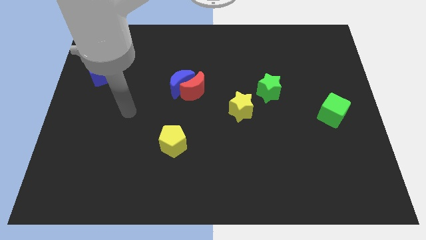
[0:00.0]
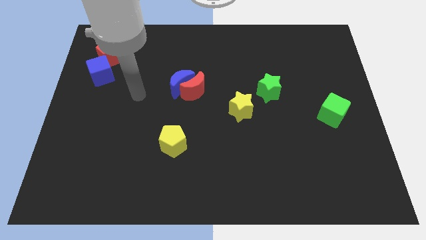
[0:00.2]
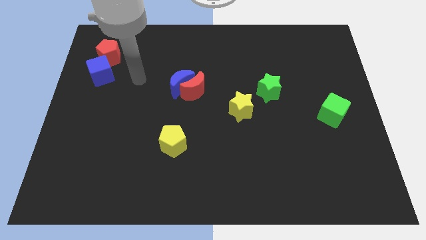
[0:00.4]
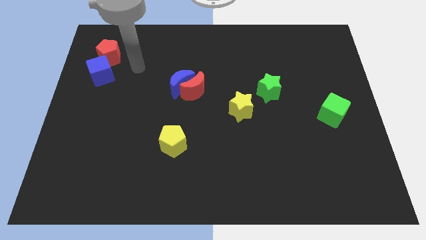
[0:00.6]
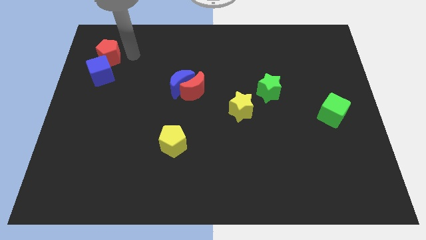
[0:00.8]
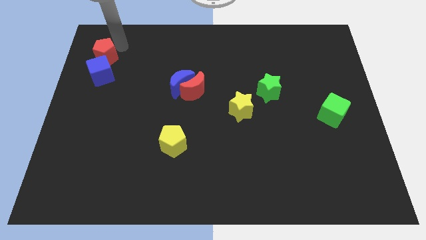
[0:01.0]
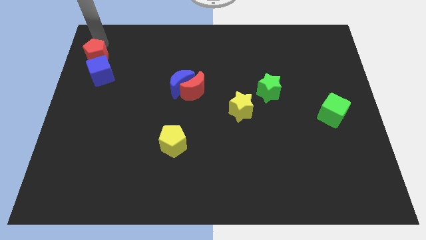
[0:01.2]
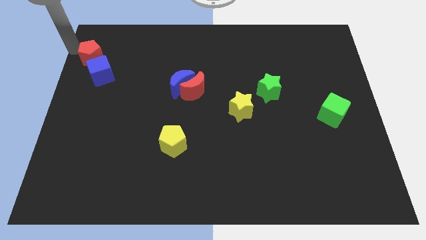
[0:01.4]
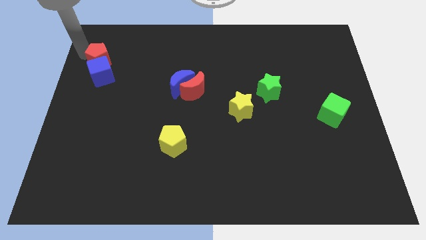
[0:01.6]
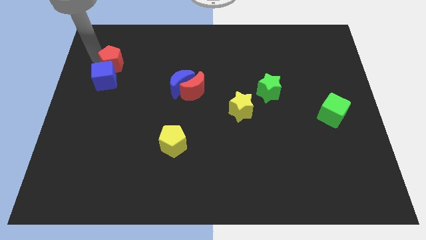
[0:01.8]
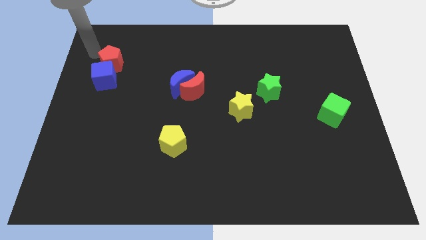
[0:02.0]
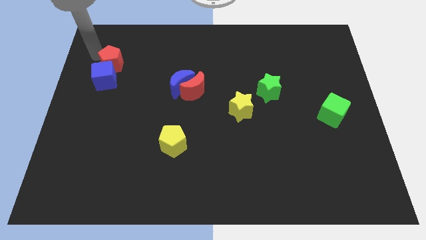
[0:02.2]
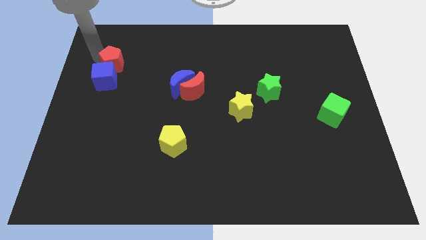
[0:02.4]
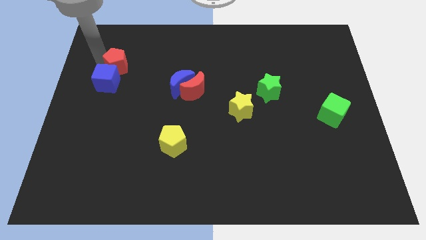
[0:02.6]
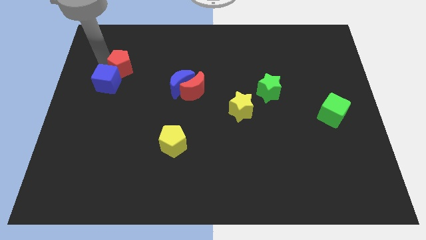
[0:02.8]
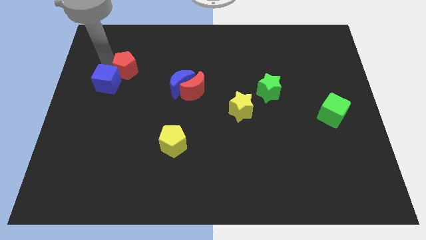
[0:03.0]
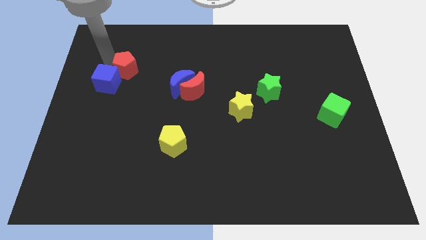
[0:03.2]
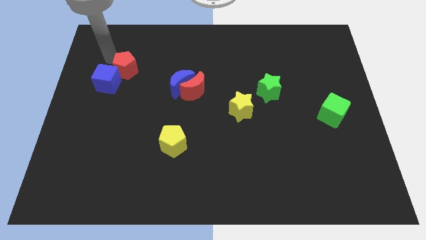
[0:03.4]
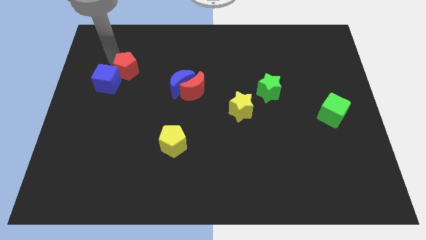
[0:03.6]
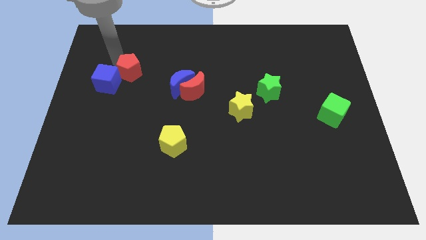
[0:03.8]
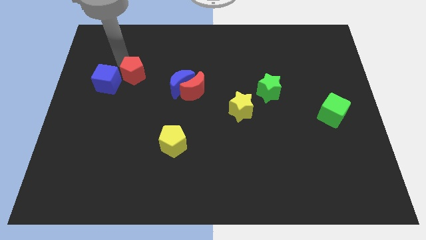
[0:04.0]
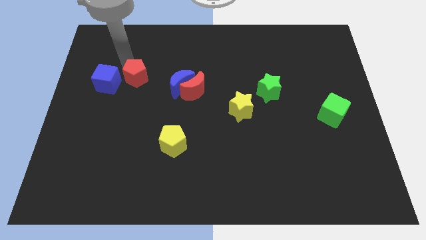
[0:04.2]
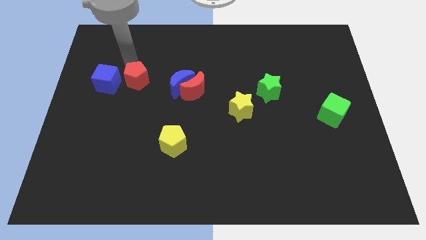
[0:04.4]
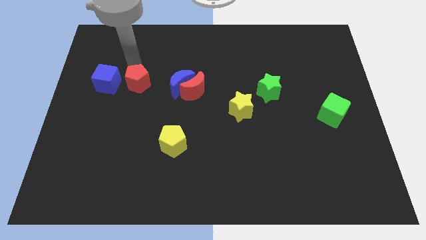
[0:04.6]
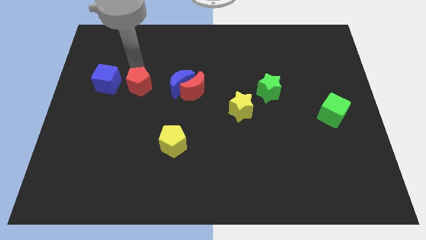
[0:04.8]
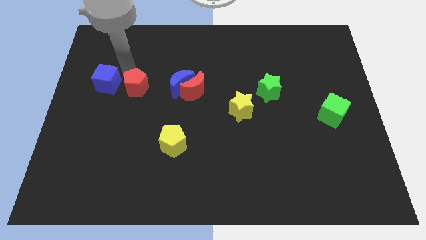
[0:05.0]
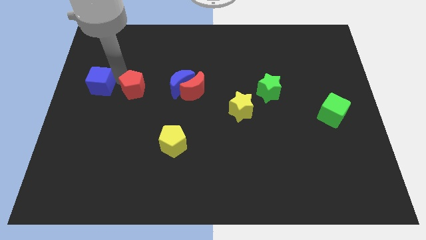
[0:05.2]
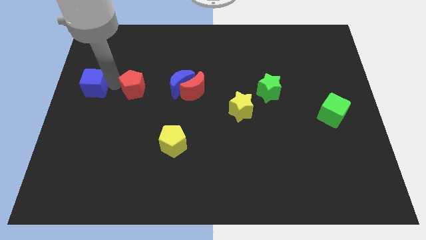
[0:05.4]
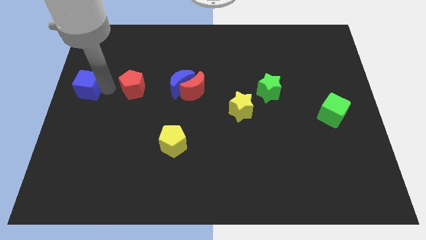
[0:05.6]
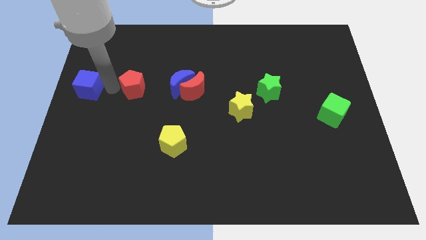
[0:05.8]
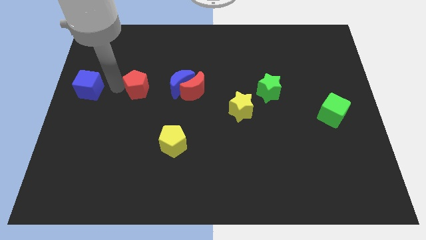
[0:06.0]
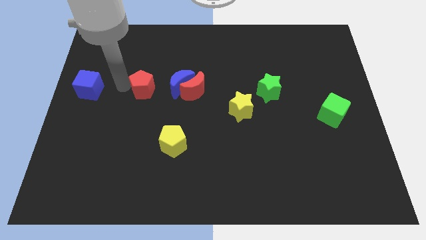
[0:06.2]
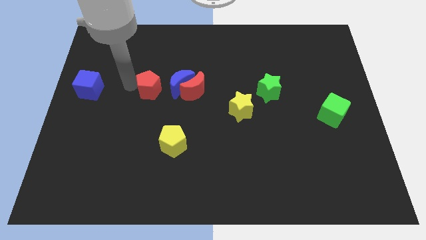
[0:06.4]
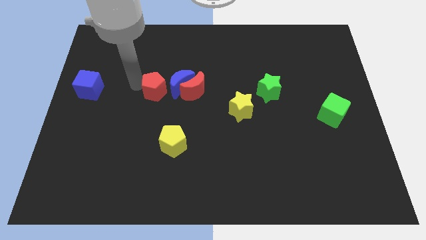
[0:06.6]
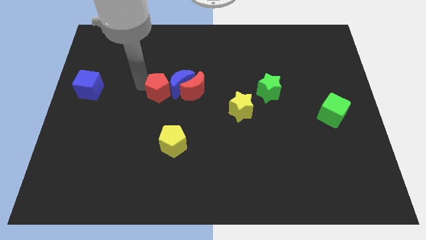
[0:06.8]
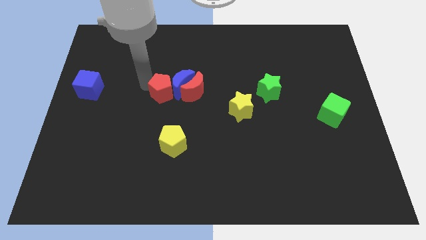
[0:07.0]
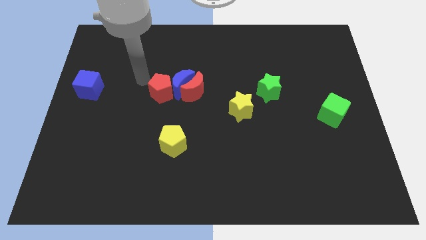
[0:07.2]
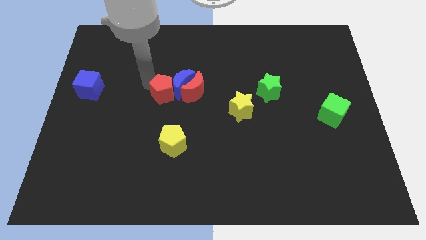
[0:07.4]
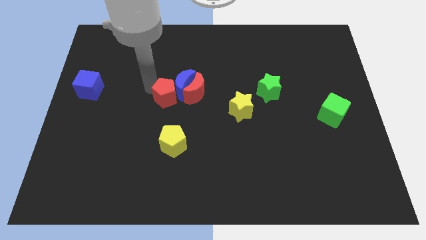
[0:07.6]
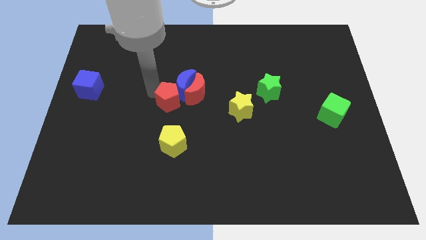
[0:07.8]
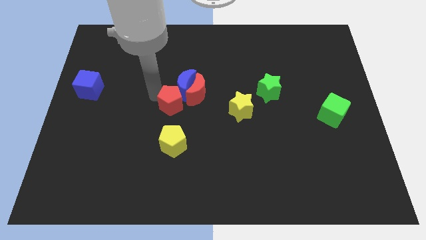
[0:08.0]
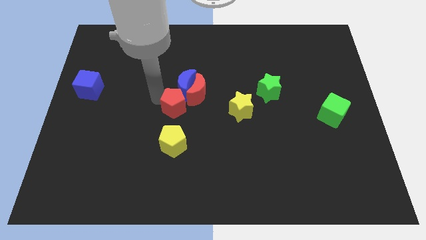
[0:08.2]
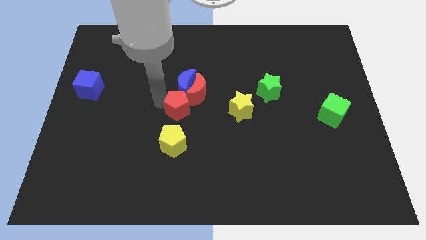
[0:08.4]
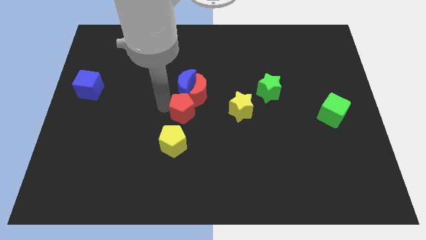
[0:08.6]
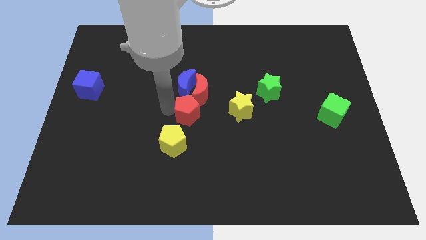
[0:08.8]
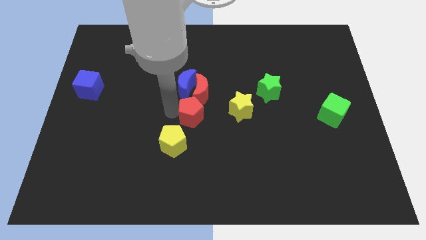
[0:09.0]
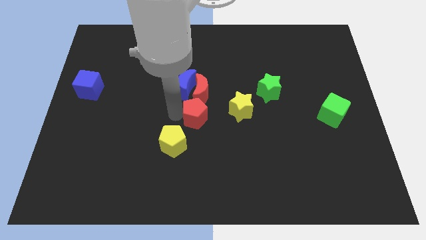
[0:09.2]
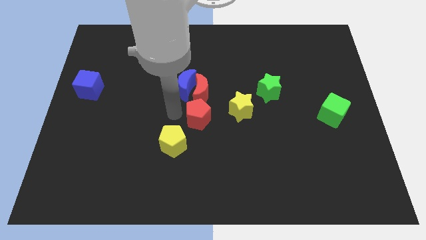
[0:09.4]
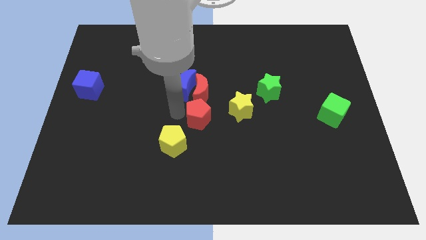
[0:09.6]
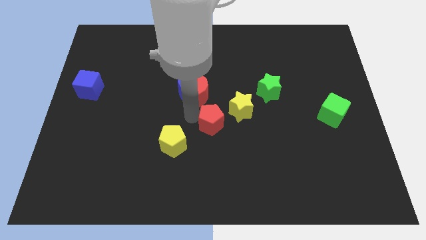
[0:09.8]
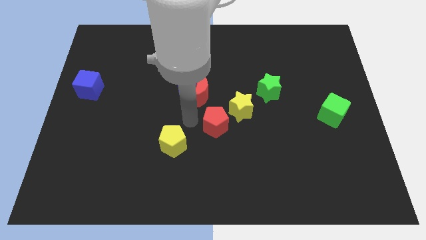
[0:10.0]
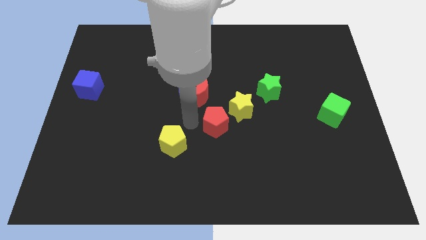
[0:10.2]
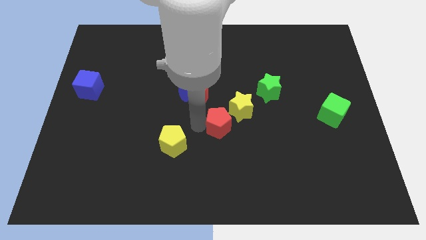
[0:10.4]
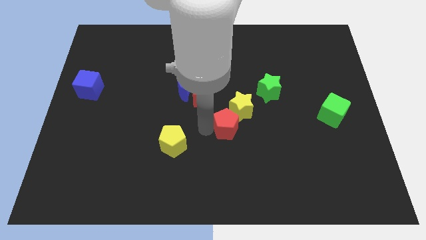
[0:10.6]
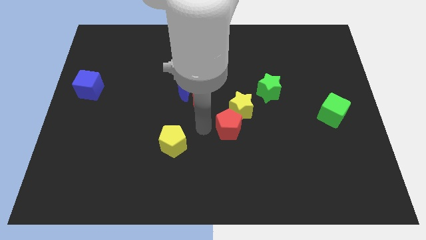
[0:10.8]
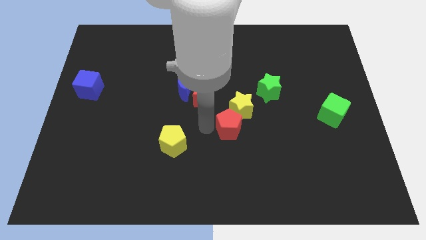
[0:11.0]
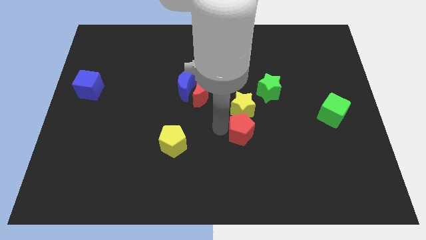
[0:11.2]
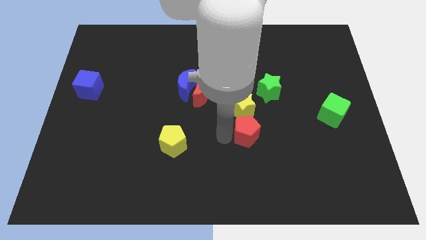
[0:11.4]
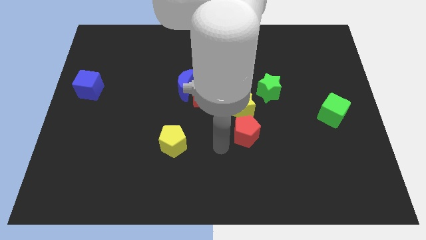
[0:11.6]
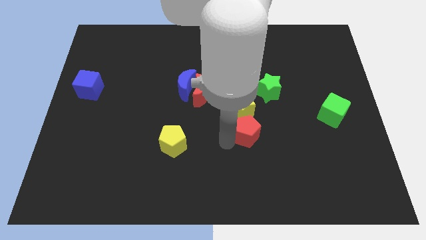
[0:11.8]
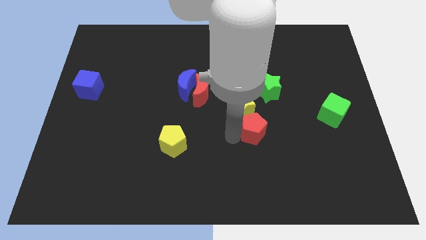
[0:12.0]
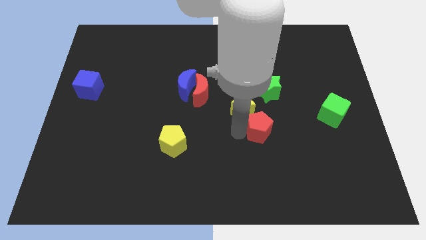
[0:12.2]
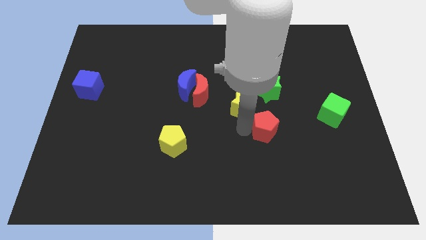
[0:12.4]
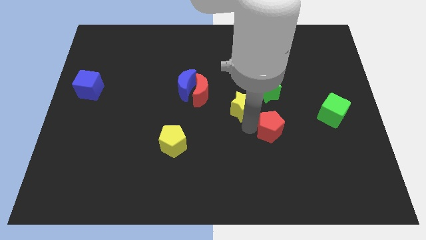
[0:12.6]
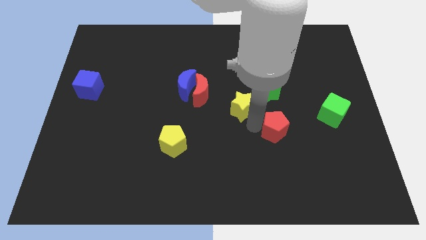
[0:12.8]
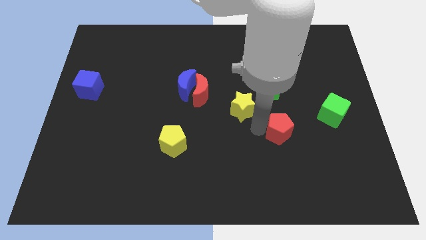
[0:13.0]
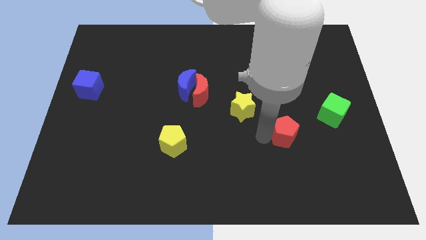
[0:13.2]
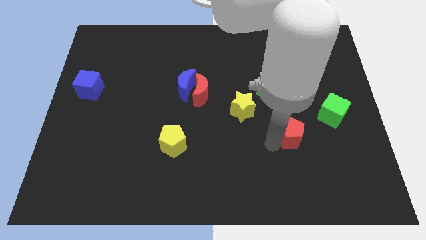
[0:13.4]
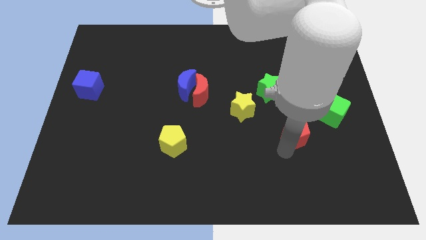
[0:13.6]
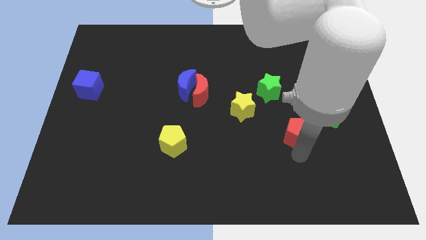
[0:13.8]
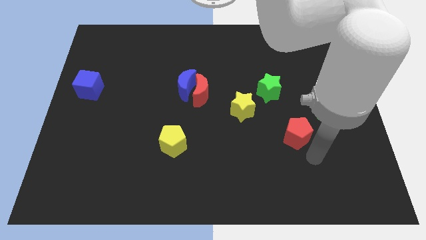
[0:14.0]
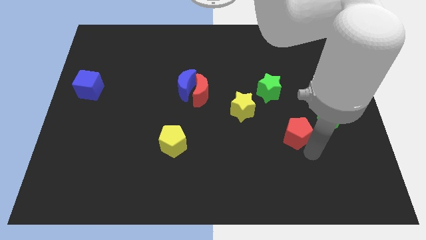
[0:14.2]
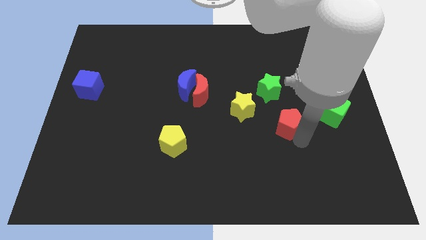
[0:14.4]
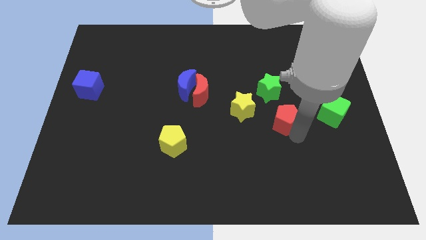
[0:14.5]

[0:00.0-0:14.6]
push the red pentagon to the bottom right of the green star
